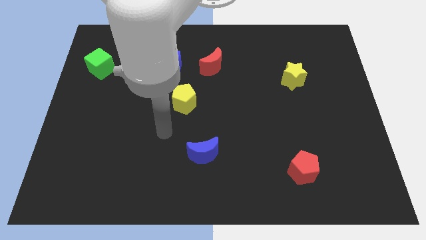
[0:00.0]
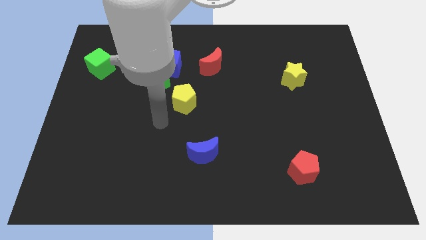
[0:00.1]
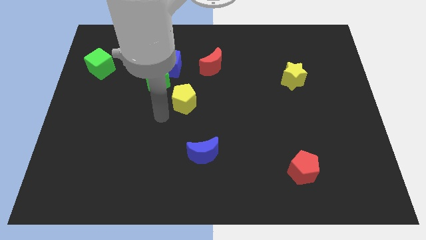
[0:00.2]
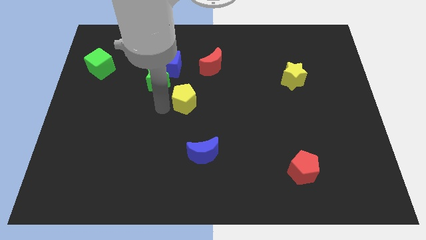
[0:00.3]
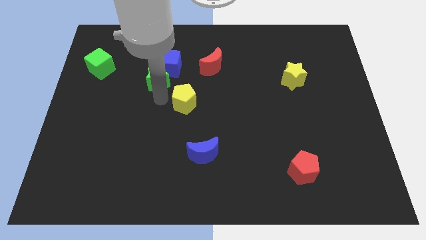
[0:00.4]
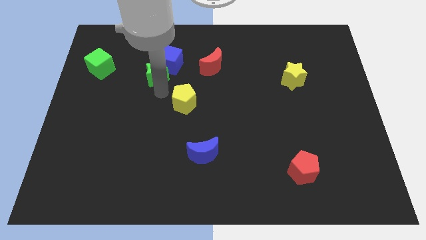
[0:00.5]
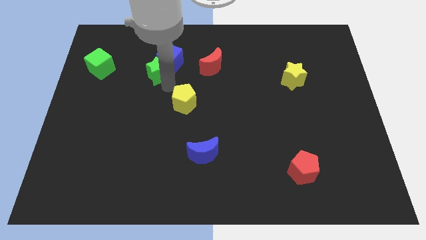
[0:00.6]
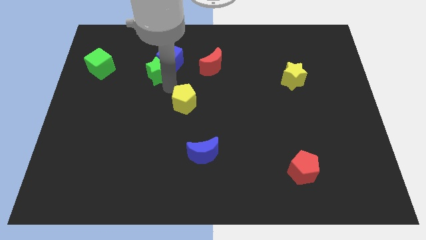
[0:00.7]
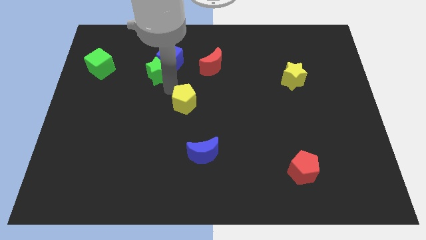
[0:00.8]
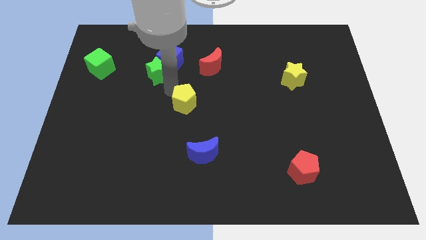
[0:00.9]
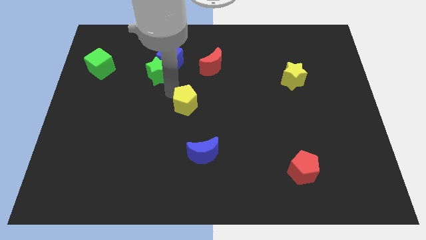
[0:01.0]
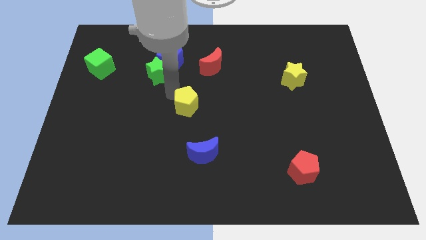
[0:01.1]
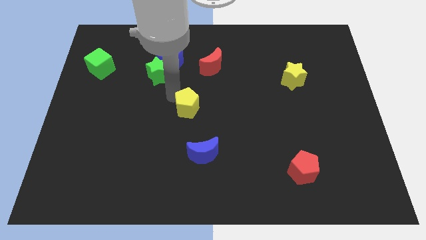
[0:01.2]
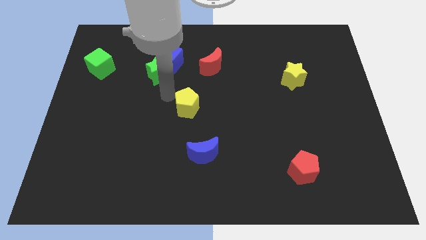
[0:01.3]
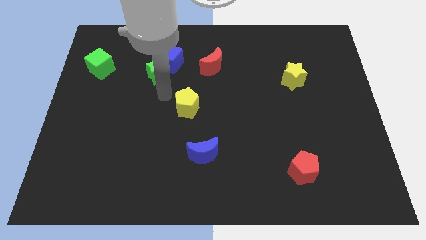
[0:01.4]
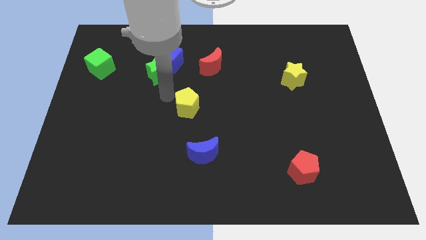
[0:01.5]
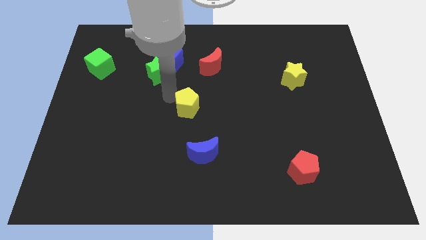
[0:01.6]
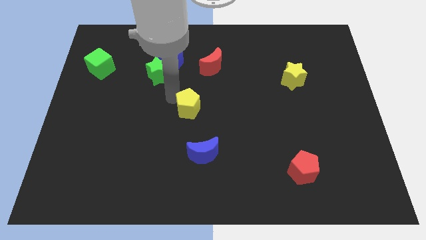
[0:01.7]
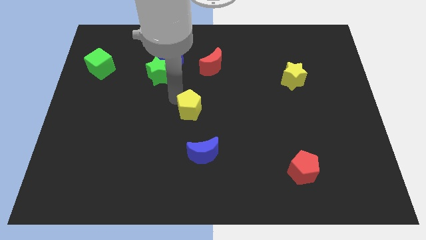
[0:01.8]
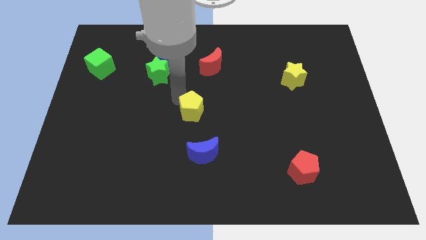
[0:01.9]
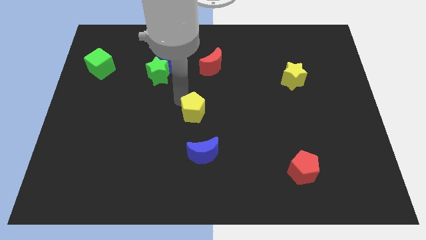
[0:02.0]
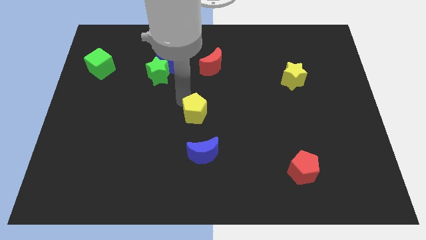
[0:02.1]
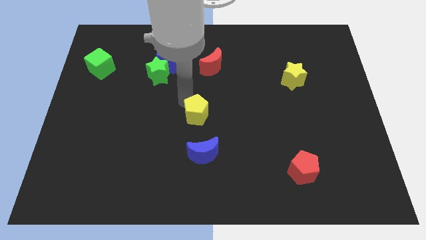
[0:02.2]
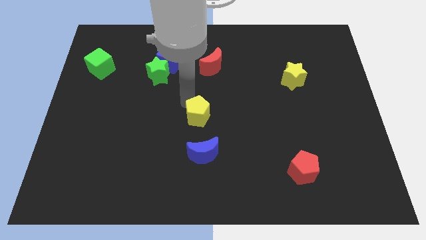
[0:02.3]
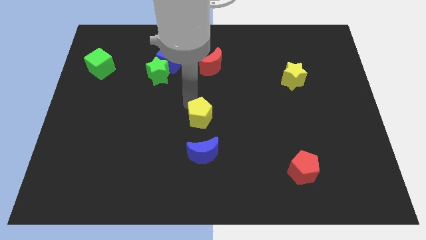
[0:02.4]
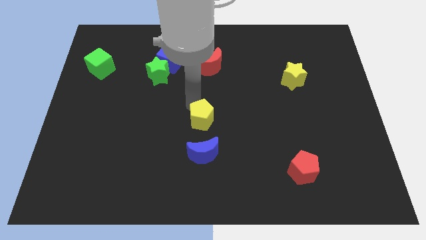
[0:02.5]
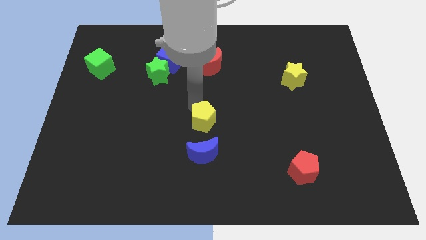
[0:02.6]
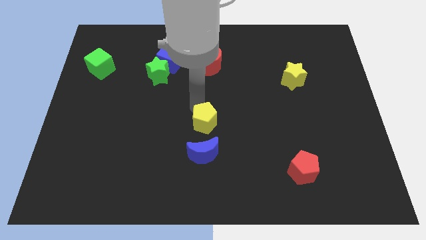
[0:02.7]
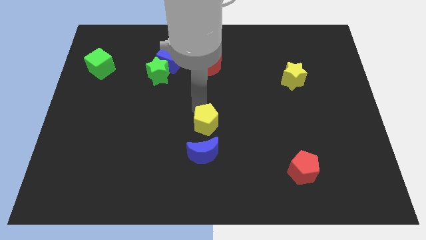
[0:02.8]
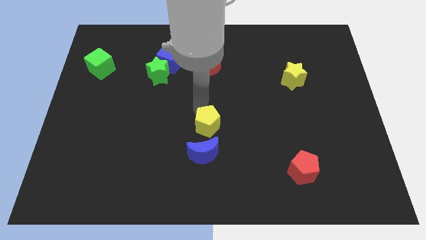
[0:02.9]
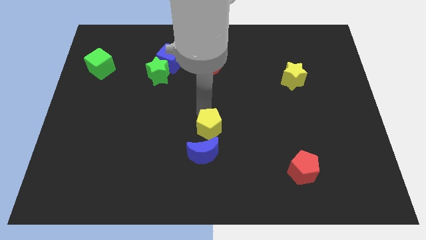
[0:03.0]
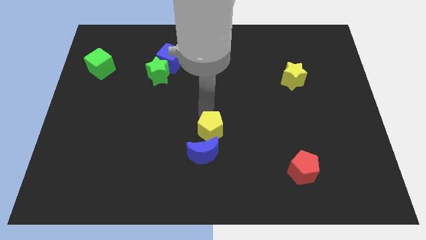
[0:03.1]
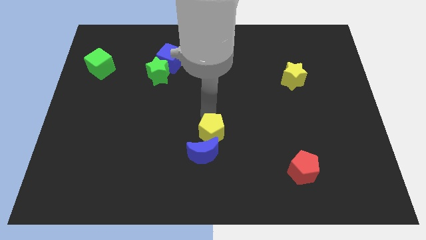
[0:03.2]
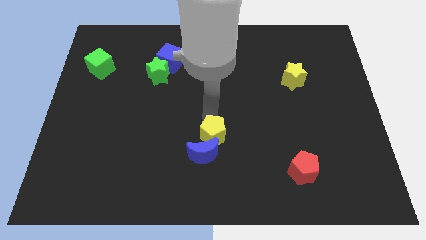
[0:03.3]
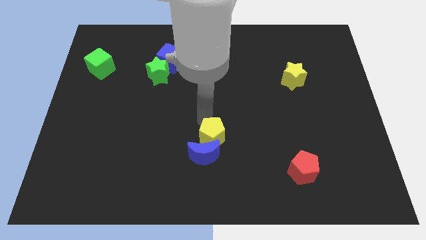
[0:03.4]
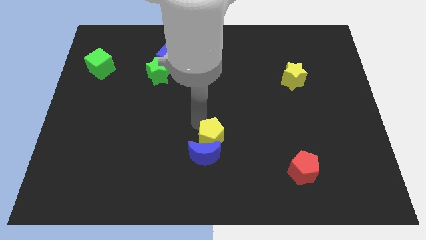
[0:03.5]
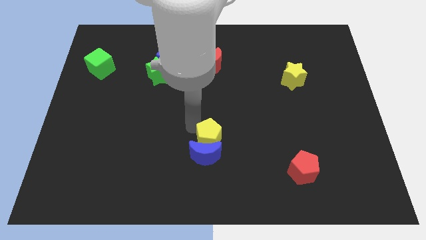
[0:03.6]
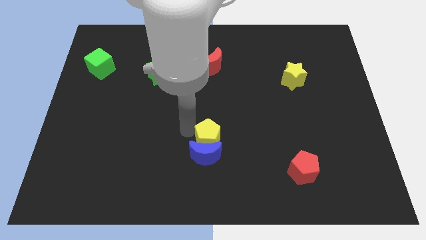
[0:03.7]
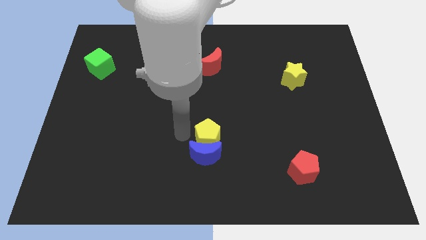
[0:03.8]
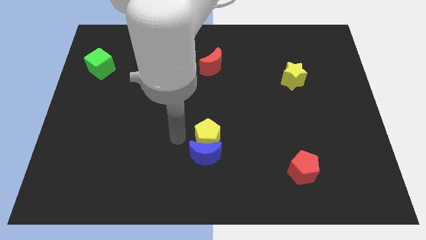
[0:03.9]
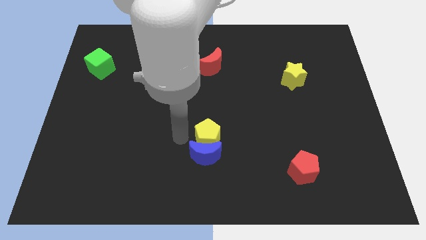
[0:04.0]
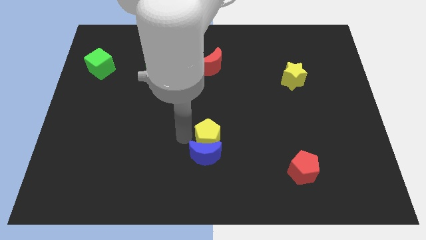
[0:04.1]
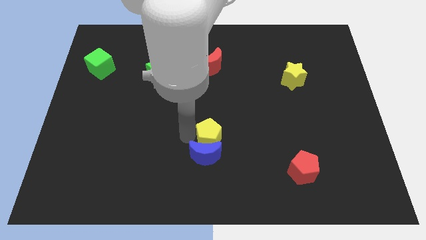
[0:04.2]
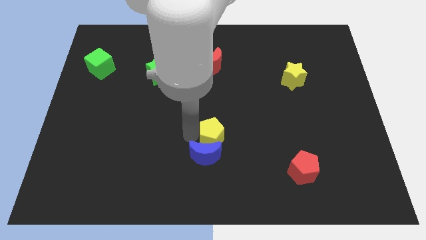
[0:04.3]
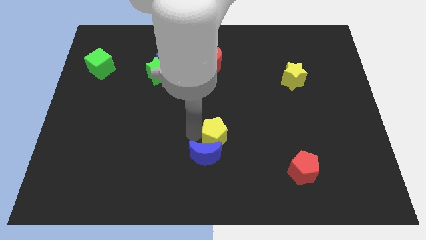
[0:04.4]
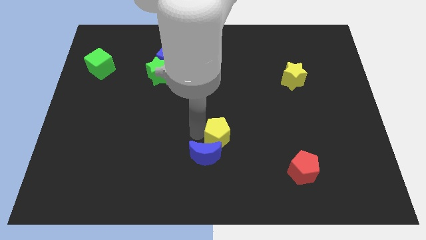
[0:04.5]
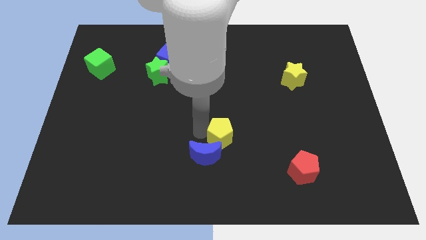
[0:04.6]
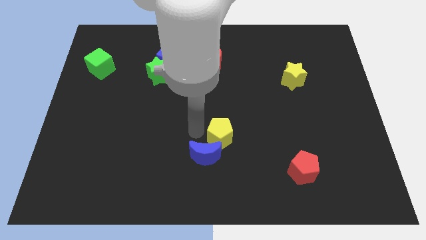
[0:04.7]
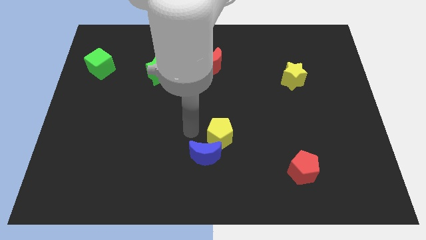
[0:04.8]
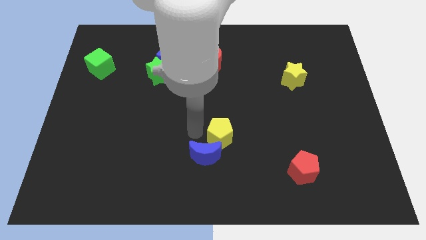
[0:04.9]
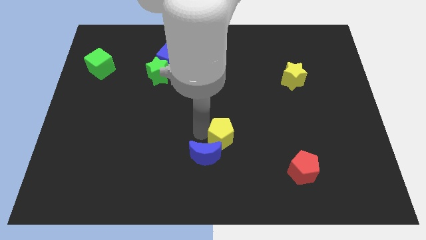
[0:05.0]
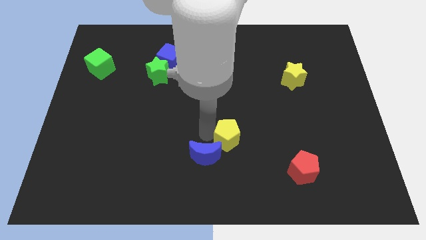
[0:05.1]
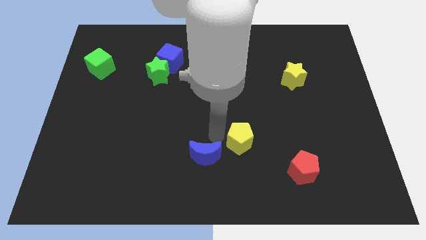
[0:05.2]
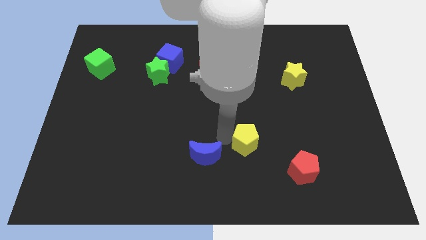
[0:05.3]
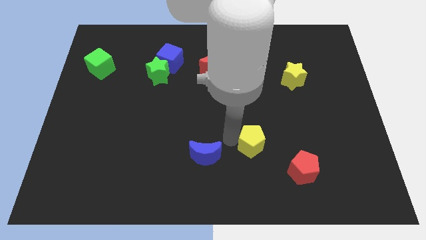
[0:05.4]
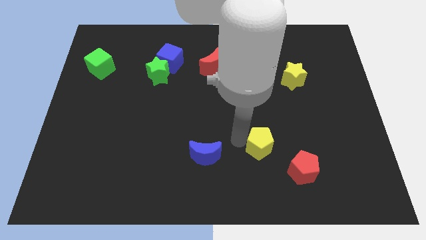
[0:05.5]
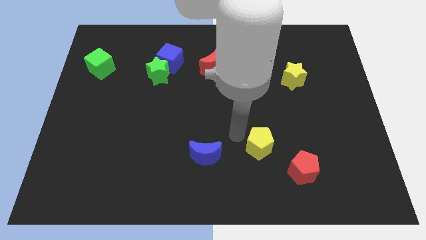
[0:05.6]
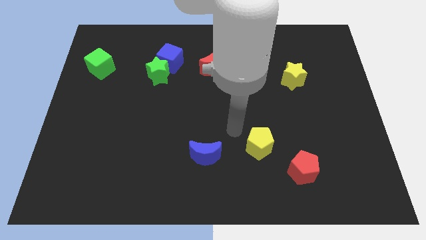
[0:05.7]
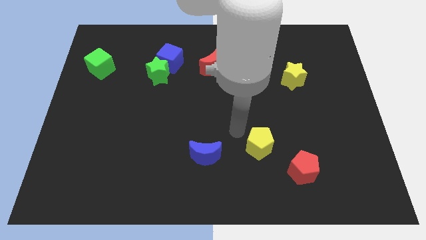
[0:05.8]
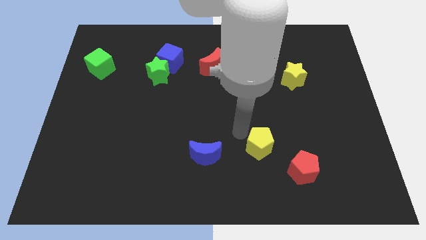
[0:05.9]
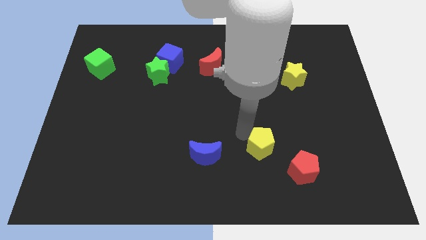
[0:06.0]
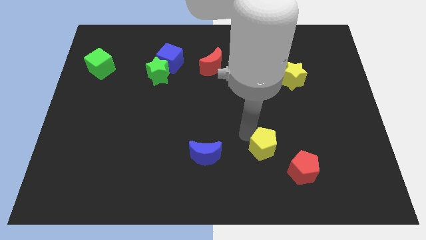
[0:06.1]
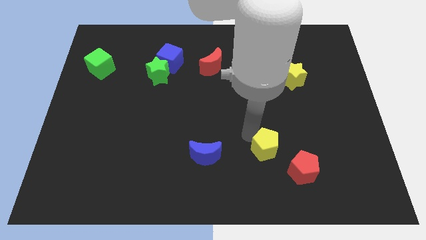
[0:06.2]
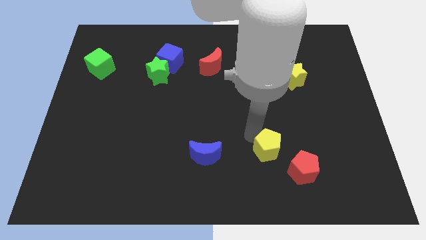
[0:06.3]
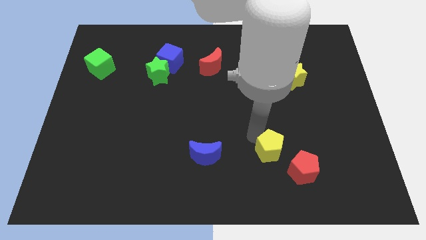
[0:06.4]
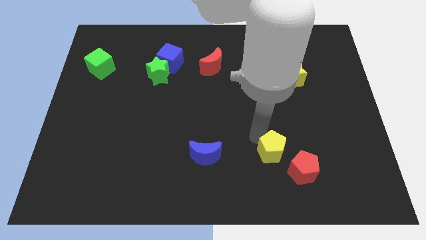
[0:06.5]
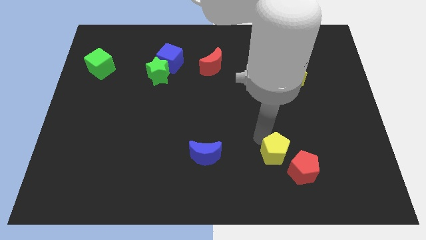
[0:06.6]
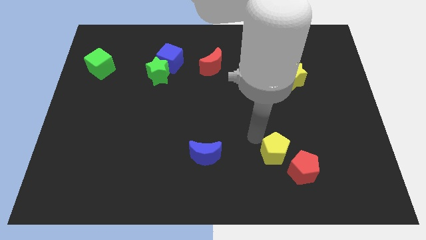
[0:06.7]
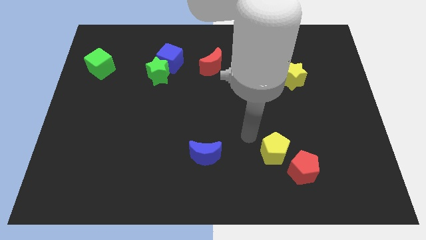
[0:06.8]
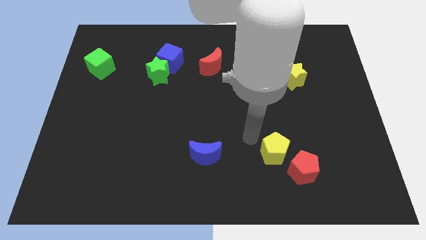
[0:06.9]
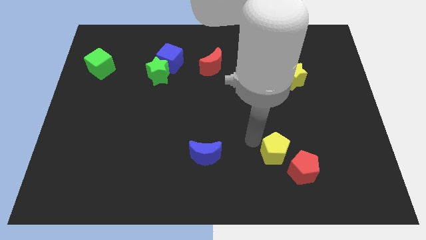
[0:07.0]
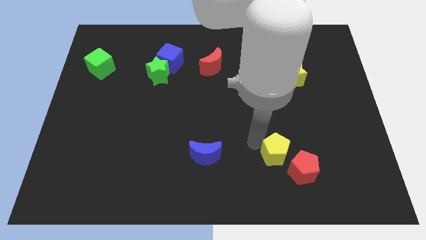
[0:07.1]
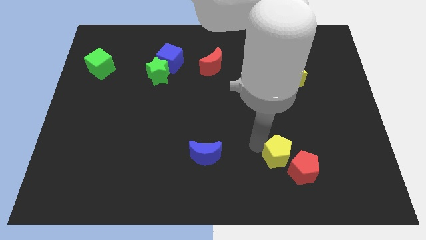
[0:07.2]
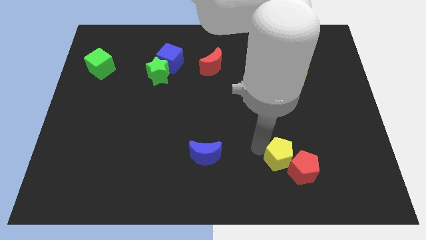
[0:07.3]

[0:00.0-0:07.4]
put the yellow pentagon to the red pentagon
